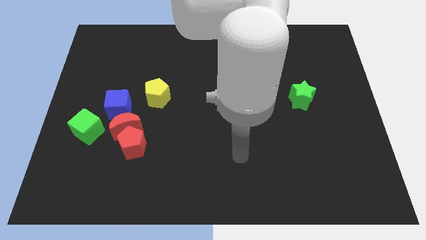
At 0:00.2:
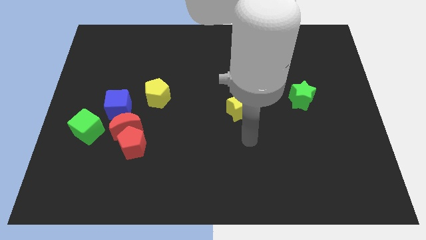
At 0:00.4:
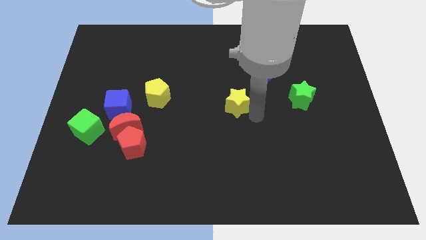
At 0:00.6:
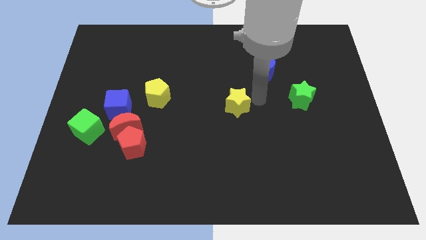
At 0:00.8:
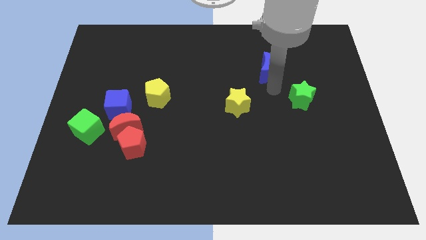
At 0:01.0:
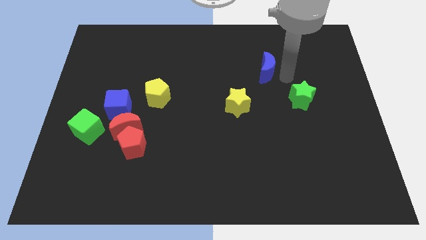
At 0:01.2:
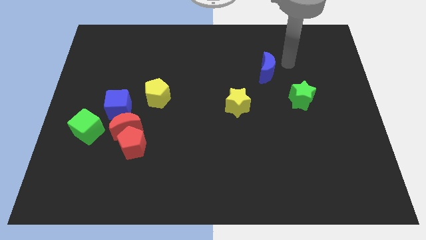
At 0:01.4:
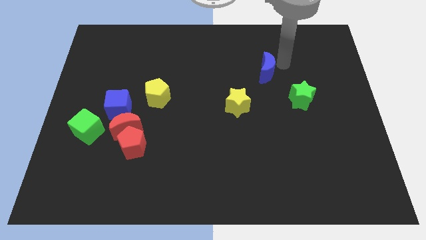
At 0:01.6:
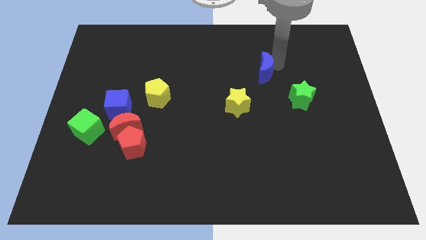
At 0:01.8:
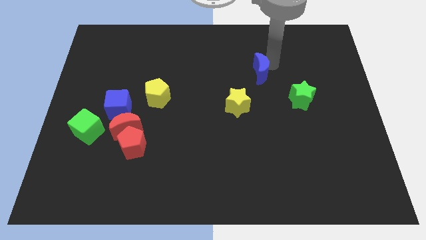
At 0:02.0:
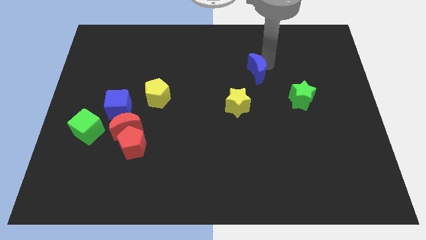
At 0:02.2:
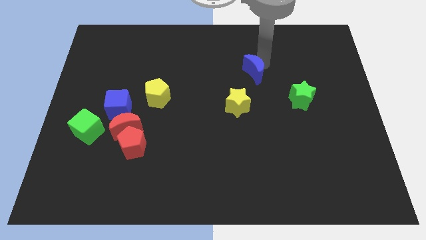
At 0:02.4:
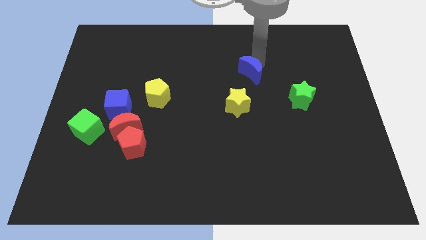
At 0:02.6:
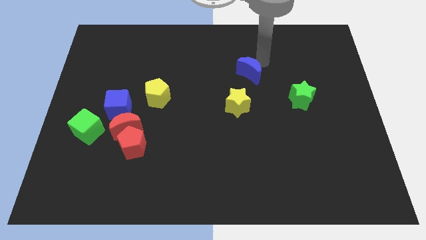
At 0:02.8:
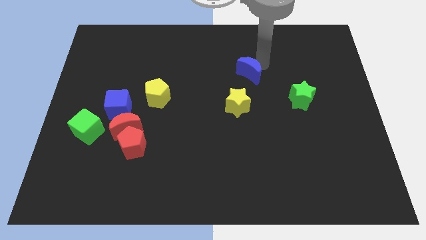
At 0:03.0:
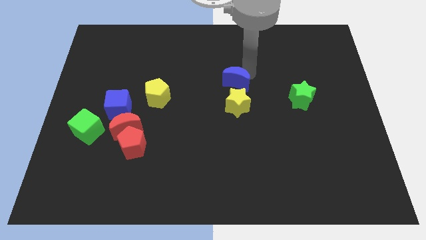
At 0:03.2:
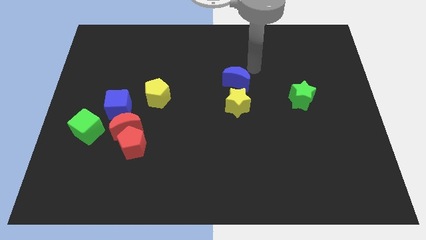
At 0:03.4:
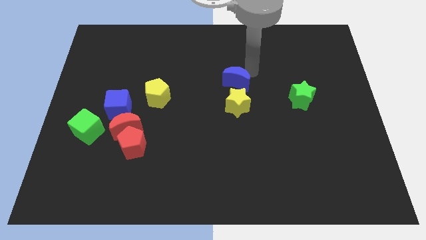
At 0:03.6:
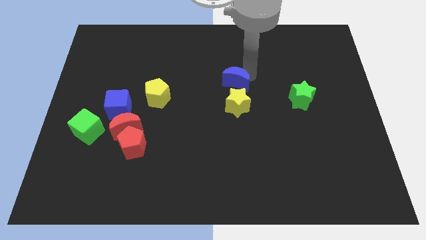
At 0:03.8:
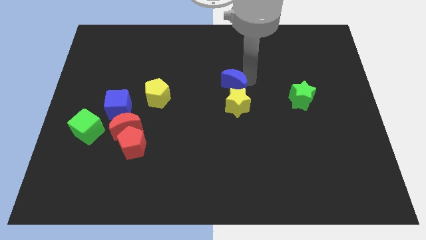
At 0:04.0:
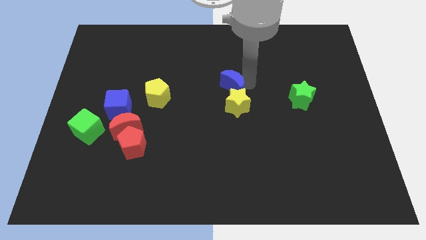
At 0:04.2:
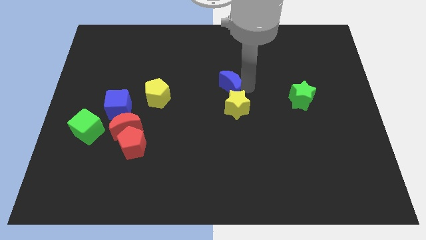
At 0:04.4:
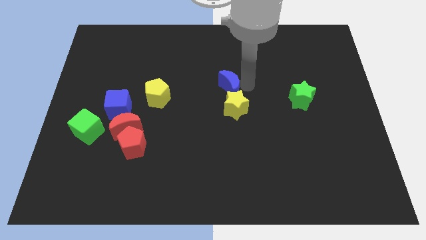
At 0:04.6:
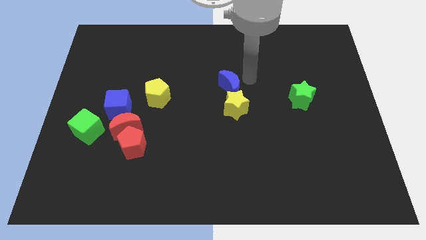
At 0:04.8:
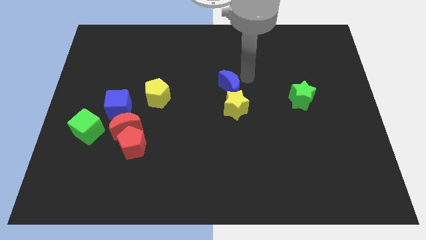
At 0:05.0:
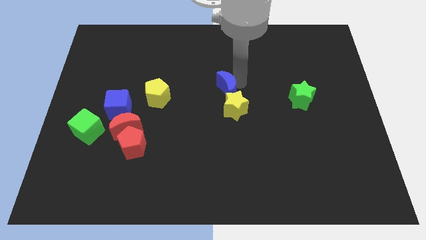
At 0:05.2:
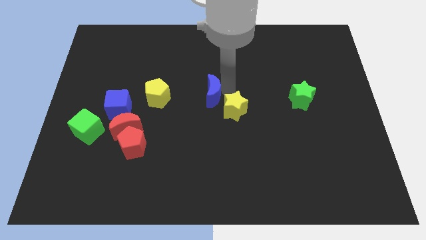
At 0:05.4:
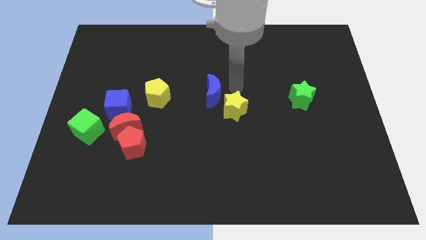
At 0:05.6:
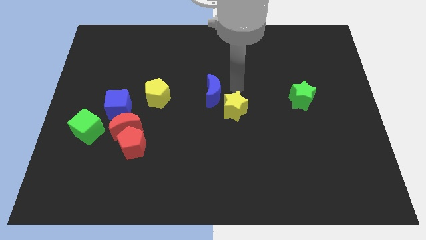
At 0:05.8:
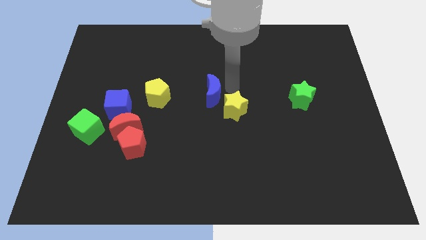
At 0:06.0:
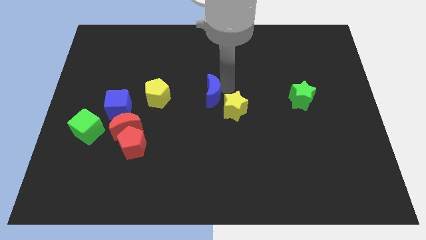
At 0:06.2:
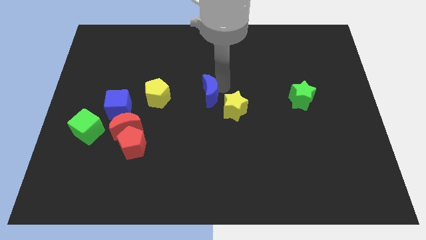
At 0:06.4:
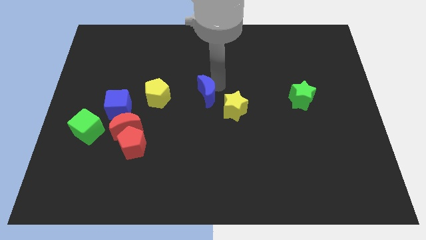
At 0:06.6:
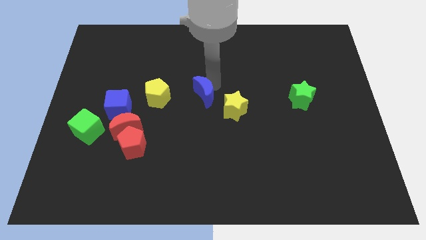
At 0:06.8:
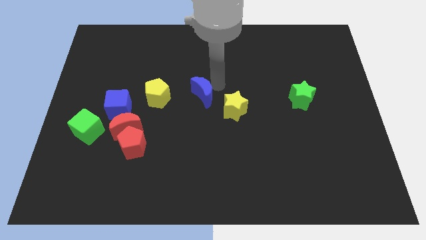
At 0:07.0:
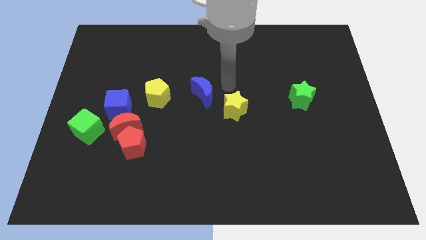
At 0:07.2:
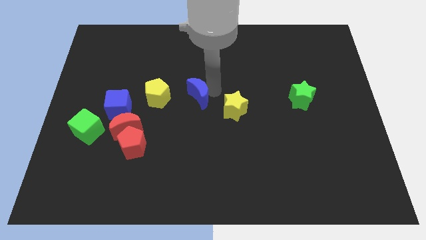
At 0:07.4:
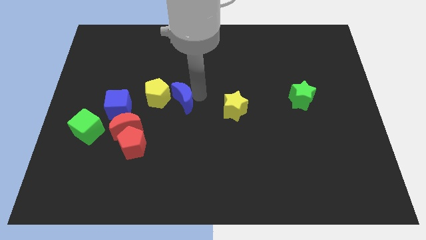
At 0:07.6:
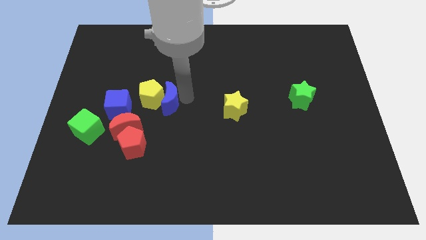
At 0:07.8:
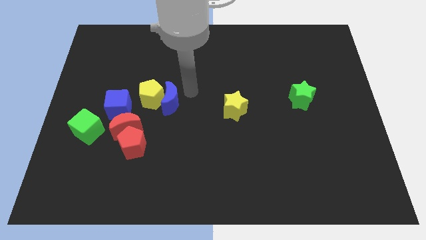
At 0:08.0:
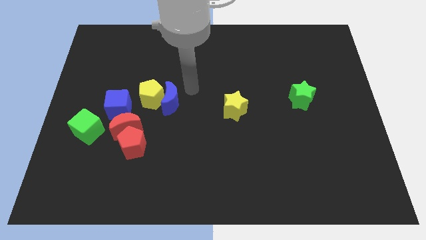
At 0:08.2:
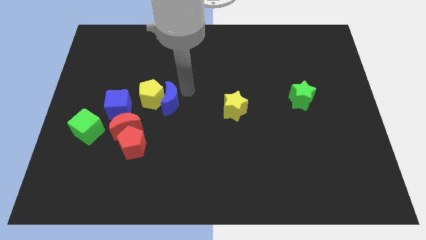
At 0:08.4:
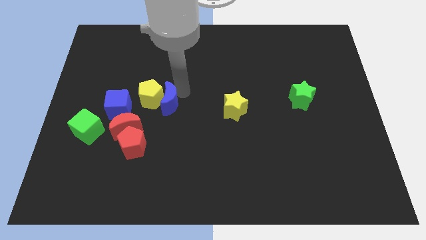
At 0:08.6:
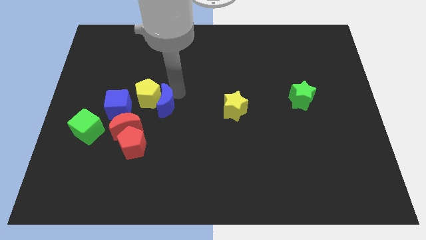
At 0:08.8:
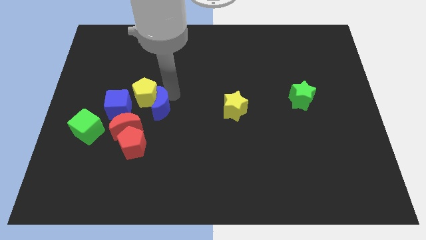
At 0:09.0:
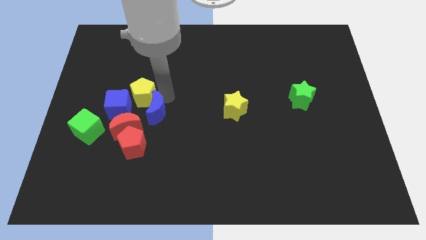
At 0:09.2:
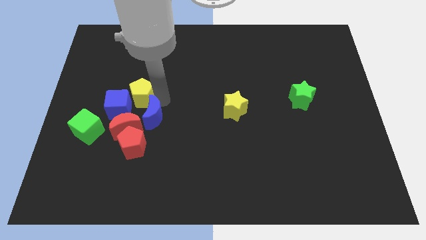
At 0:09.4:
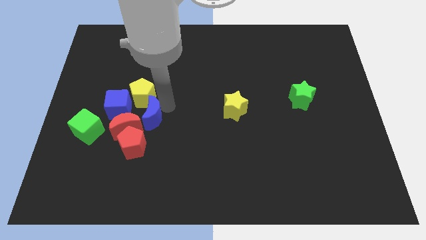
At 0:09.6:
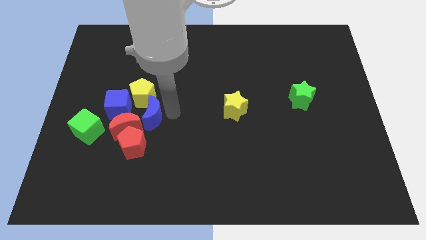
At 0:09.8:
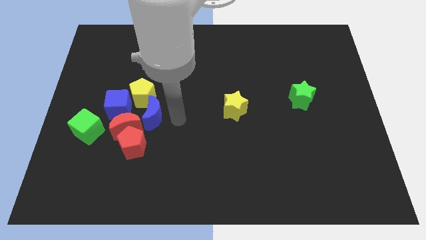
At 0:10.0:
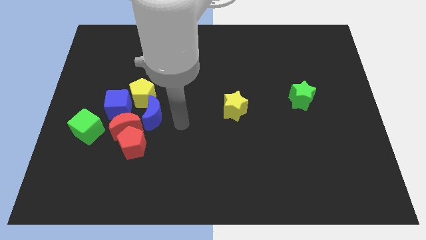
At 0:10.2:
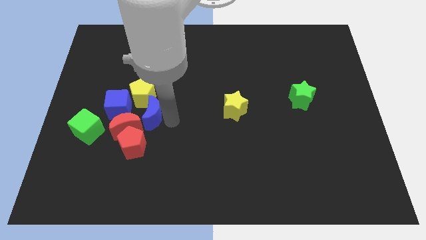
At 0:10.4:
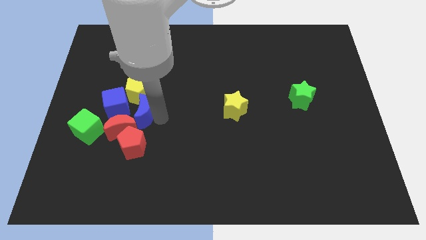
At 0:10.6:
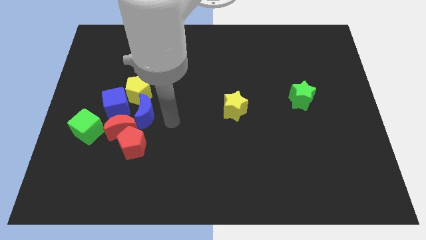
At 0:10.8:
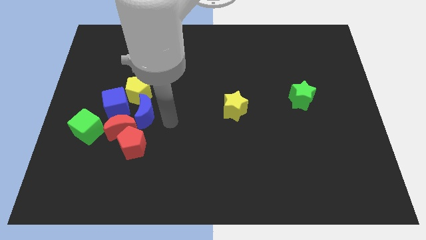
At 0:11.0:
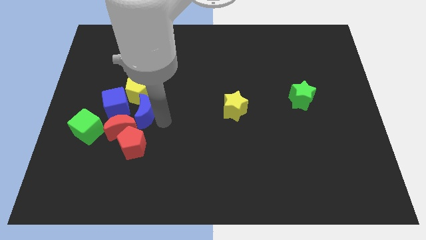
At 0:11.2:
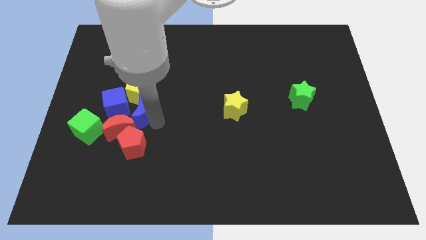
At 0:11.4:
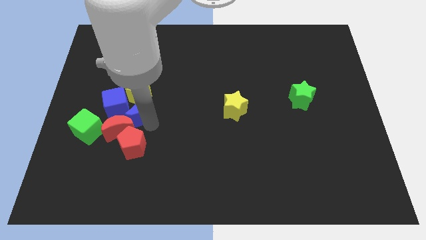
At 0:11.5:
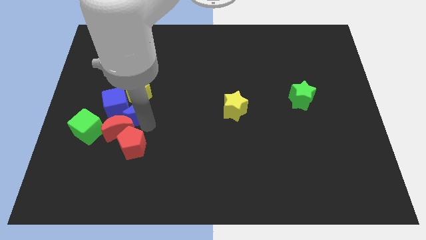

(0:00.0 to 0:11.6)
slide the blue moon next to the blue cube

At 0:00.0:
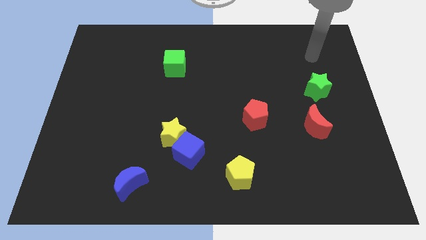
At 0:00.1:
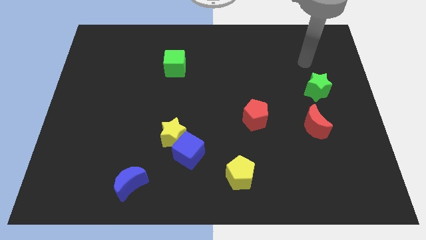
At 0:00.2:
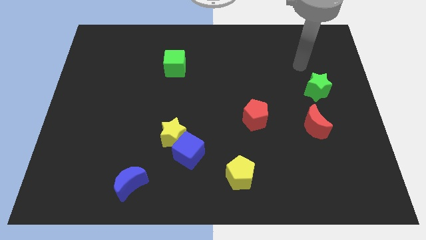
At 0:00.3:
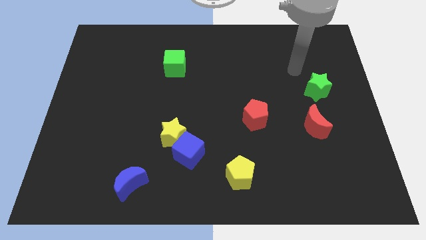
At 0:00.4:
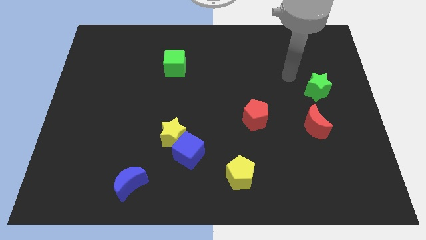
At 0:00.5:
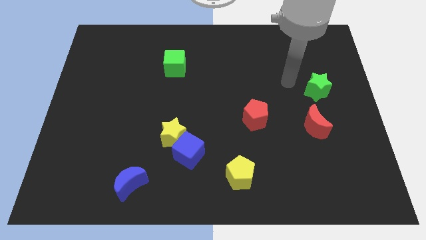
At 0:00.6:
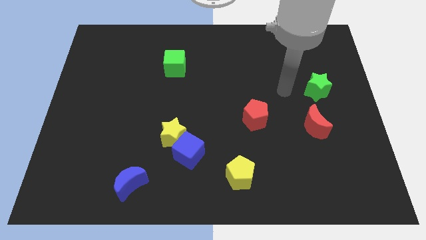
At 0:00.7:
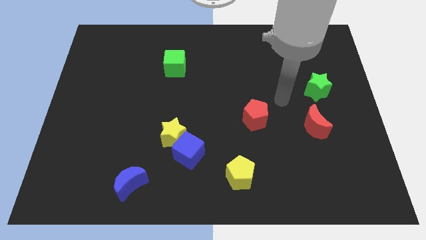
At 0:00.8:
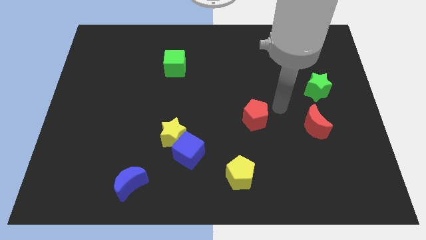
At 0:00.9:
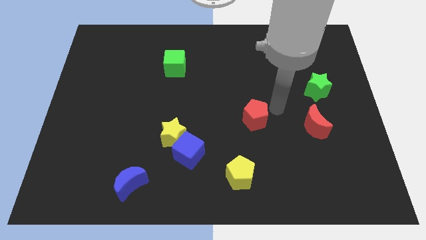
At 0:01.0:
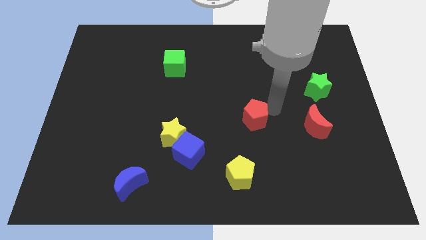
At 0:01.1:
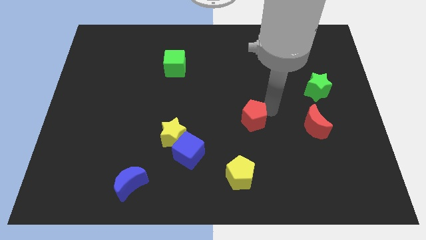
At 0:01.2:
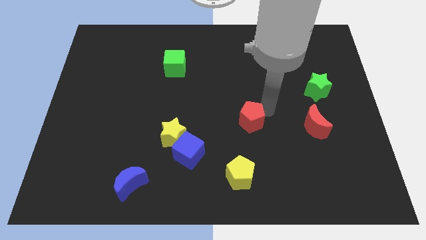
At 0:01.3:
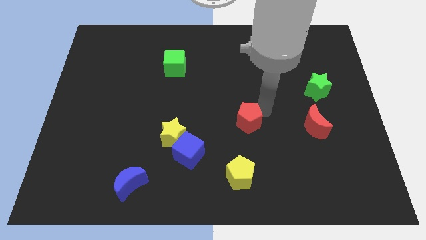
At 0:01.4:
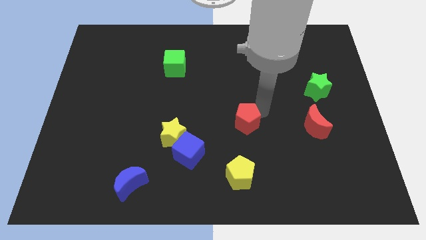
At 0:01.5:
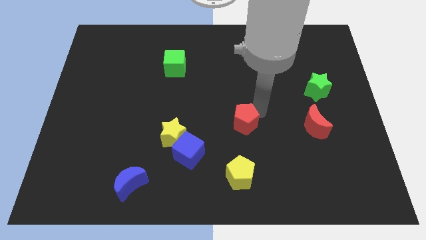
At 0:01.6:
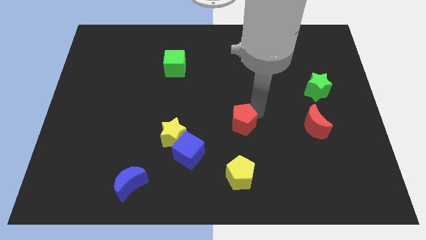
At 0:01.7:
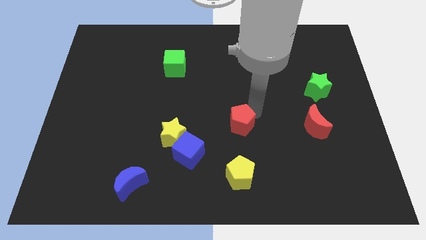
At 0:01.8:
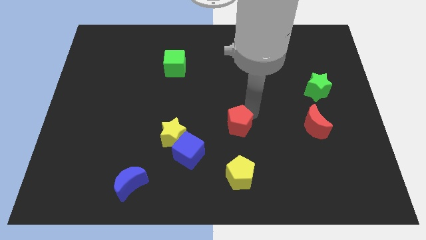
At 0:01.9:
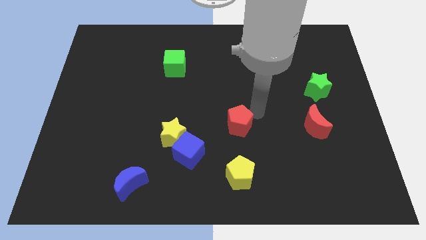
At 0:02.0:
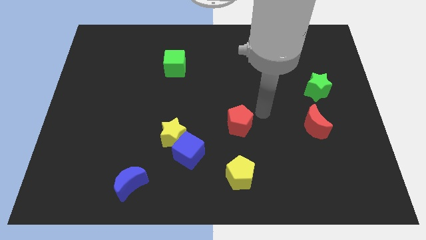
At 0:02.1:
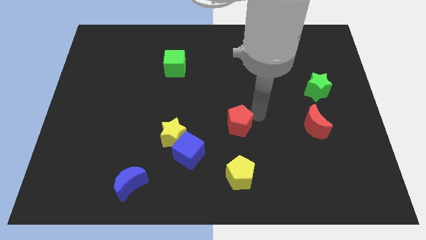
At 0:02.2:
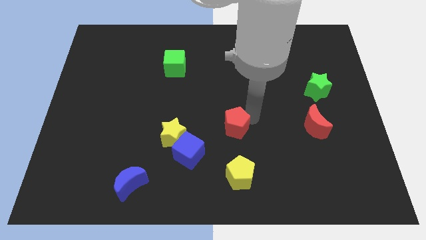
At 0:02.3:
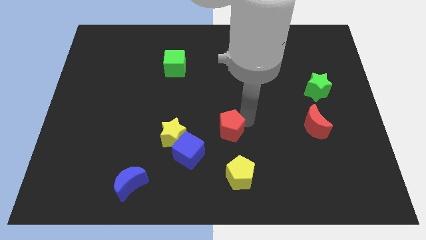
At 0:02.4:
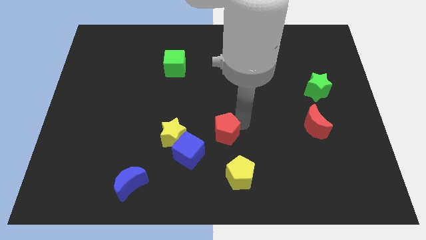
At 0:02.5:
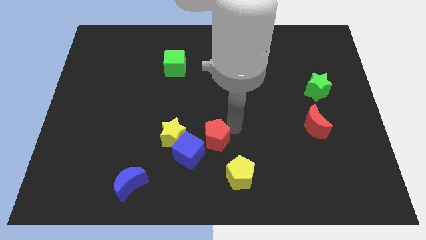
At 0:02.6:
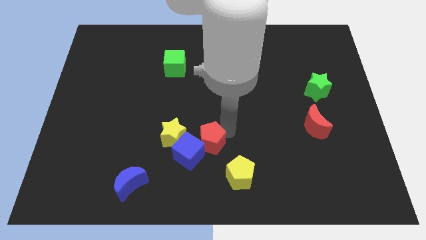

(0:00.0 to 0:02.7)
move the red pentagon to the blue cube
